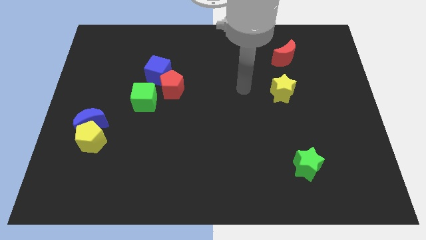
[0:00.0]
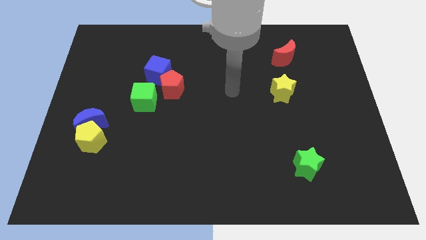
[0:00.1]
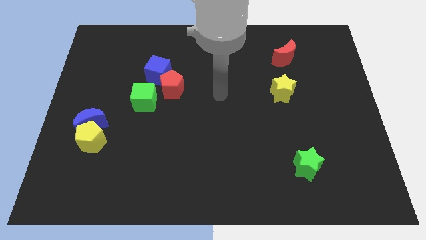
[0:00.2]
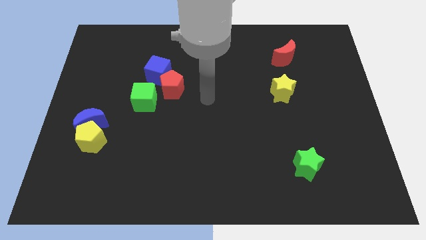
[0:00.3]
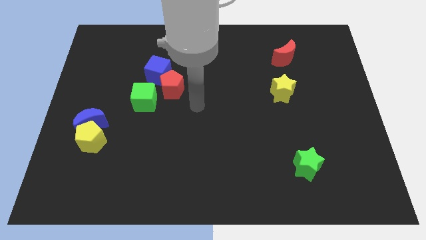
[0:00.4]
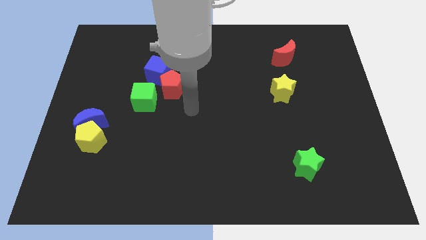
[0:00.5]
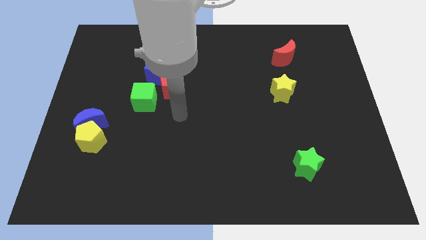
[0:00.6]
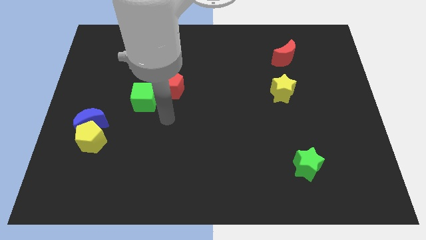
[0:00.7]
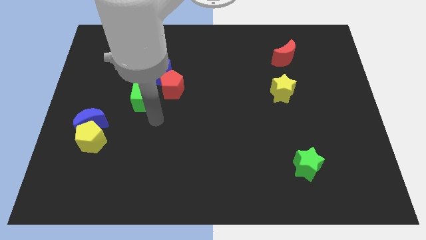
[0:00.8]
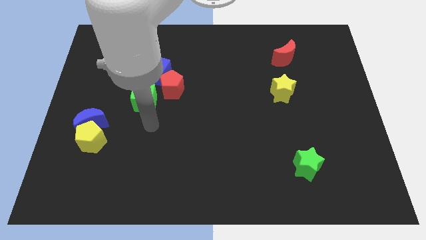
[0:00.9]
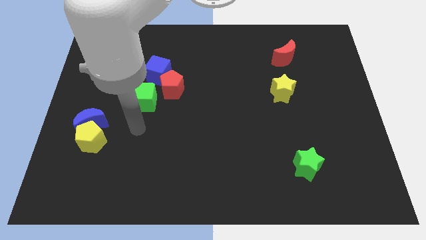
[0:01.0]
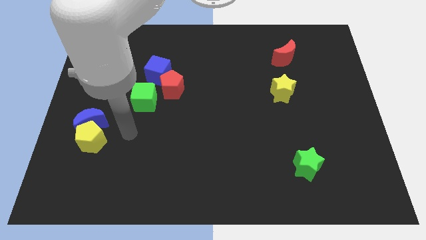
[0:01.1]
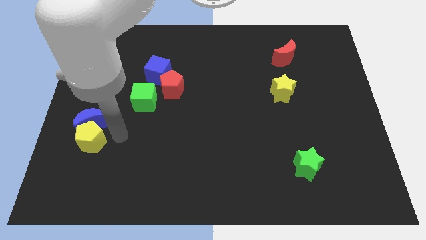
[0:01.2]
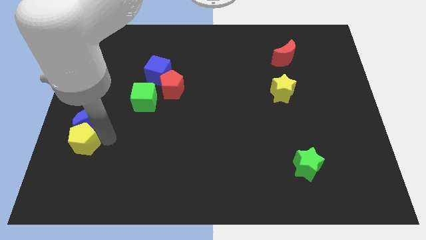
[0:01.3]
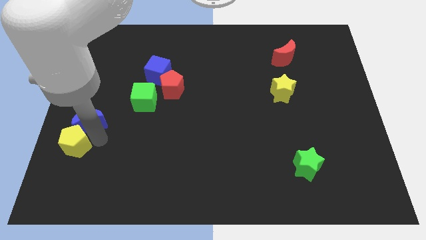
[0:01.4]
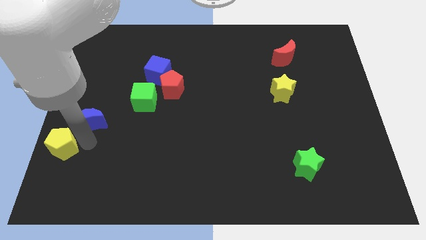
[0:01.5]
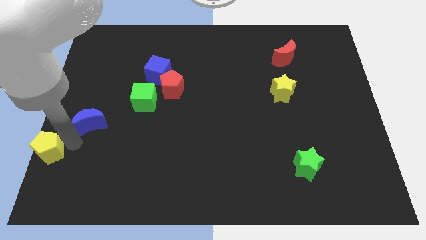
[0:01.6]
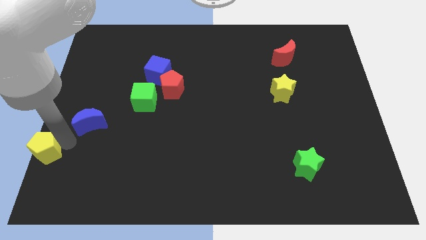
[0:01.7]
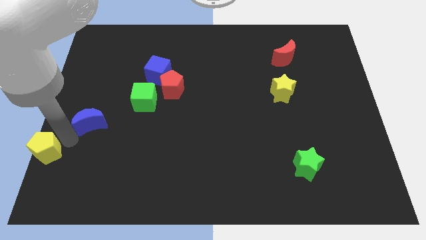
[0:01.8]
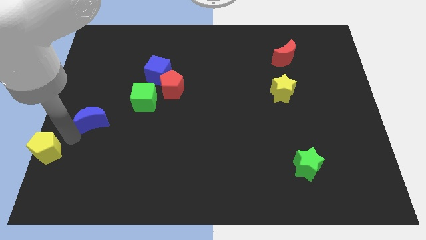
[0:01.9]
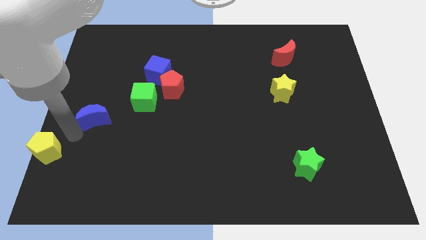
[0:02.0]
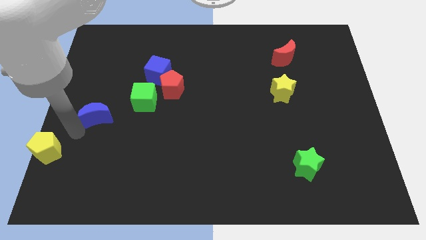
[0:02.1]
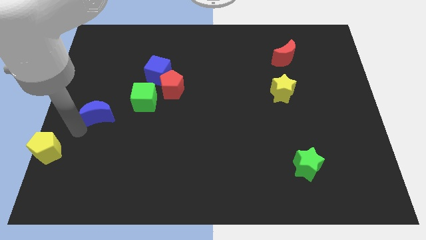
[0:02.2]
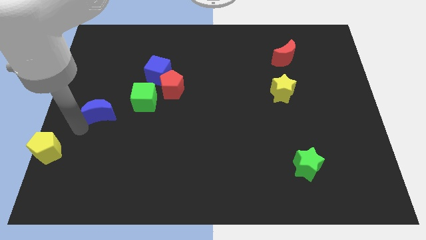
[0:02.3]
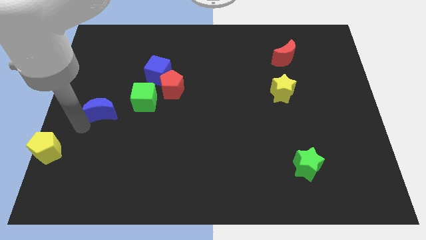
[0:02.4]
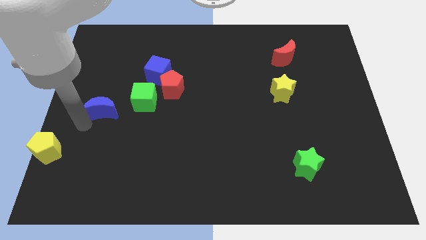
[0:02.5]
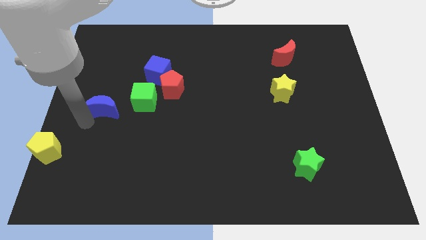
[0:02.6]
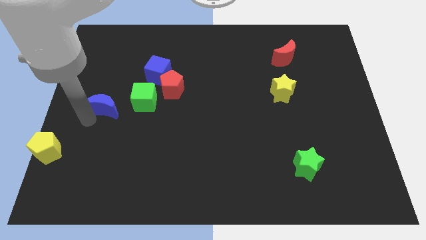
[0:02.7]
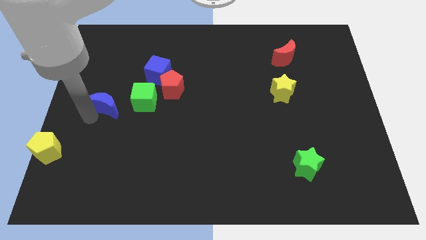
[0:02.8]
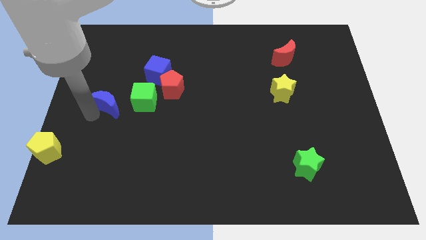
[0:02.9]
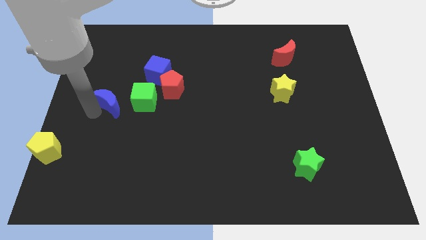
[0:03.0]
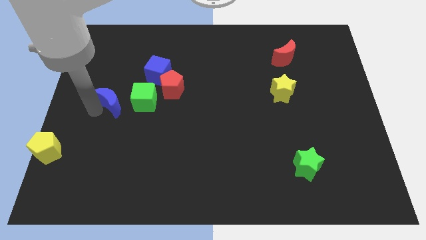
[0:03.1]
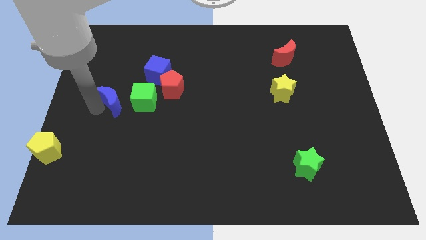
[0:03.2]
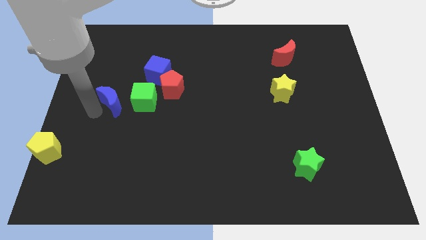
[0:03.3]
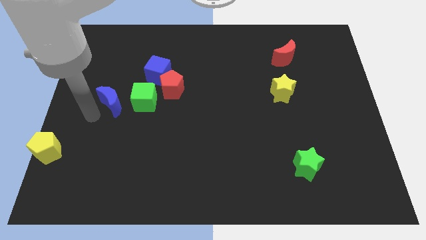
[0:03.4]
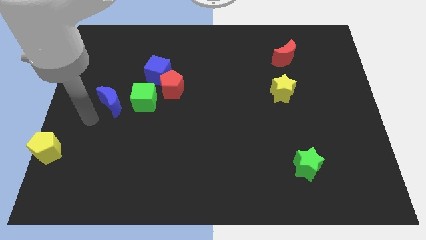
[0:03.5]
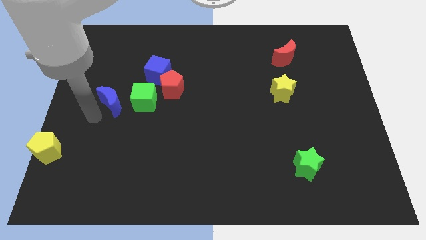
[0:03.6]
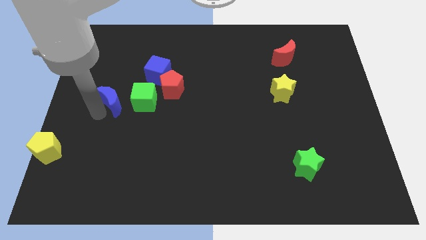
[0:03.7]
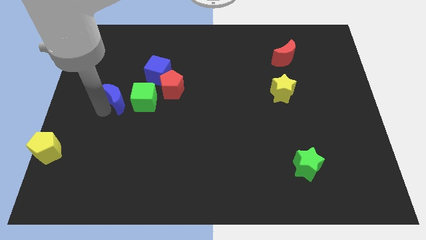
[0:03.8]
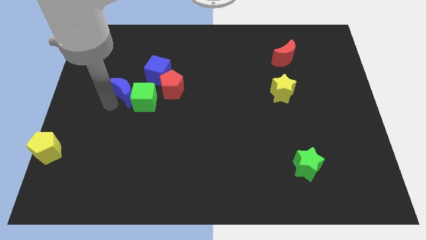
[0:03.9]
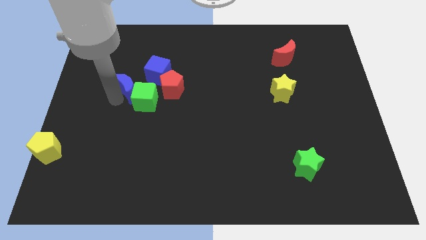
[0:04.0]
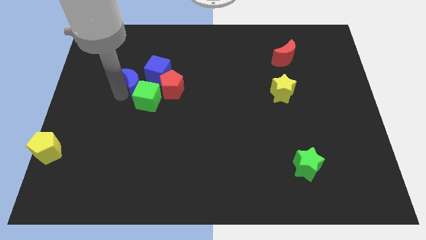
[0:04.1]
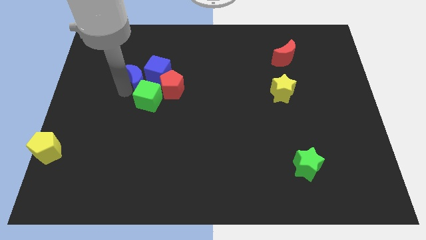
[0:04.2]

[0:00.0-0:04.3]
push the blue moon to the blue cube

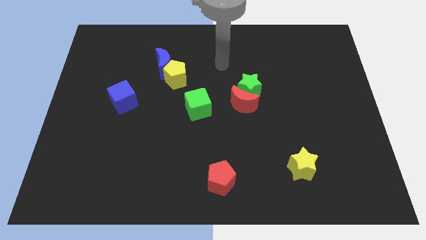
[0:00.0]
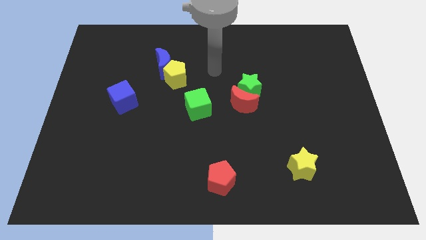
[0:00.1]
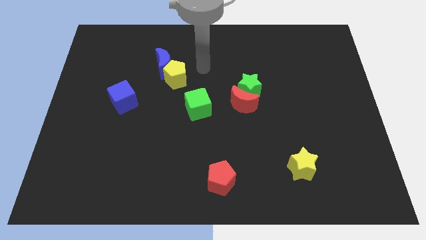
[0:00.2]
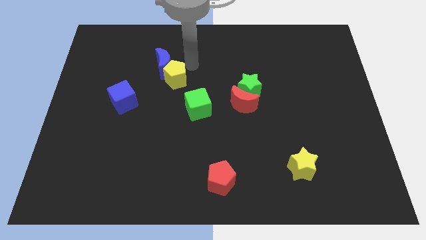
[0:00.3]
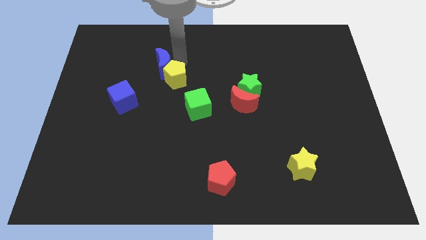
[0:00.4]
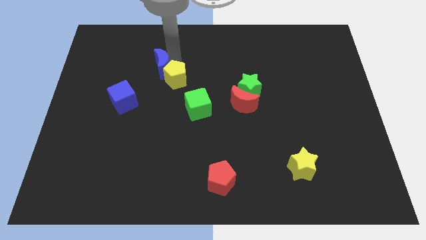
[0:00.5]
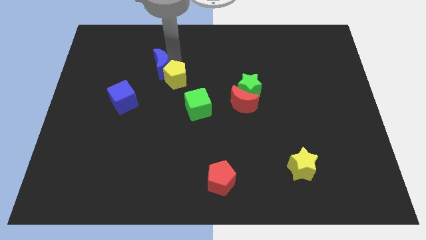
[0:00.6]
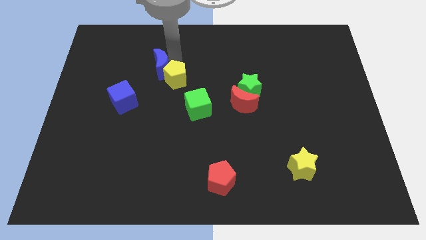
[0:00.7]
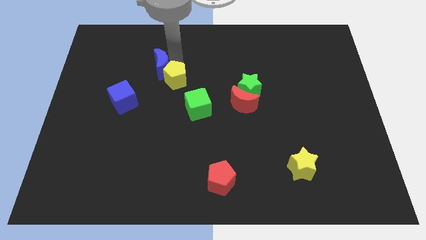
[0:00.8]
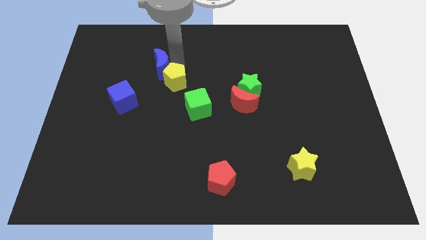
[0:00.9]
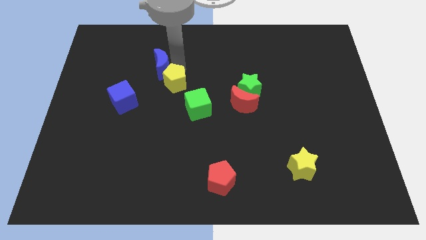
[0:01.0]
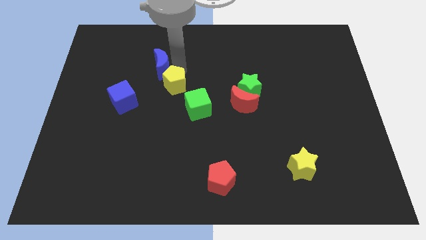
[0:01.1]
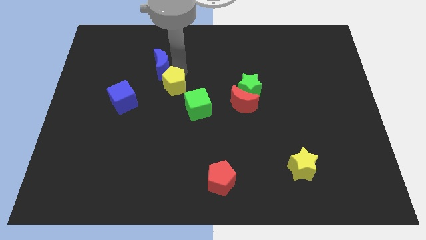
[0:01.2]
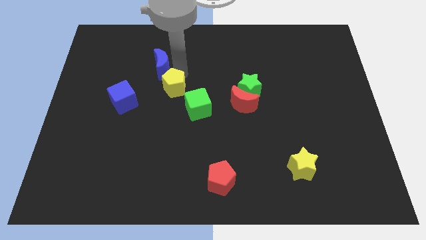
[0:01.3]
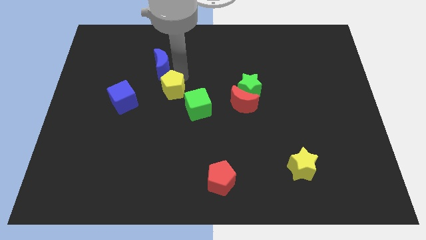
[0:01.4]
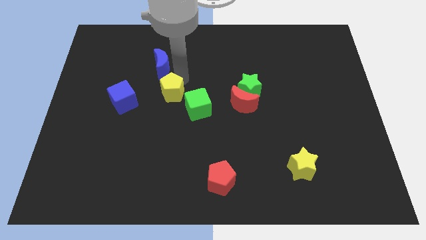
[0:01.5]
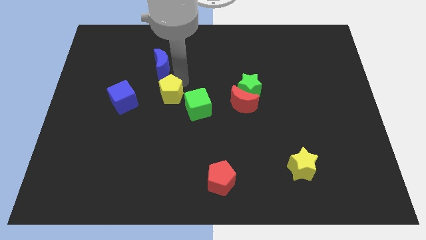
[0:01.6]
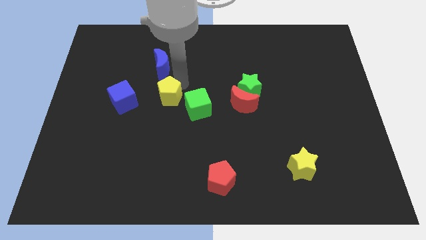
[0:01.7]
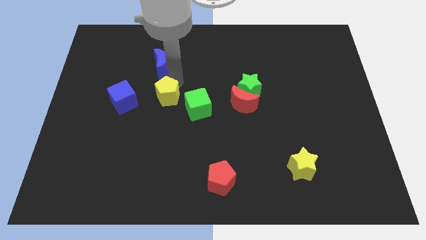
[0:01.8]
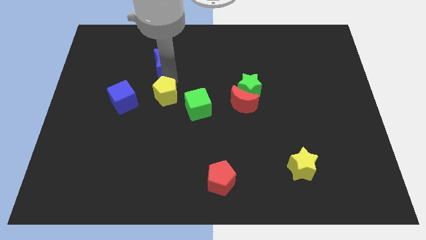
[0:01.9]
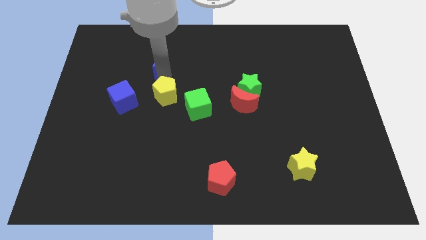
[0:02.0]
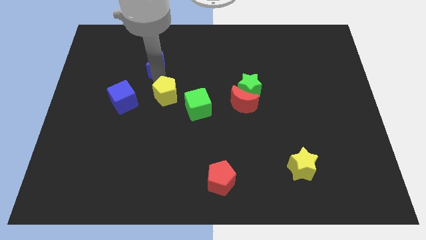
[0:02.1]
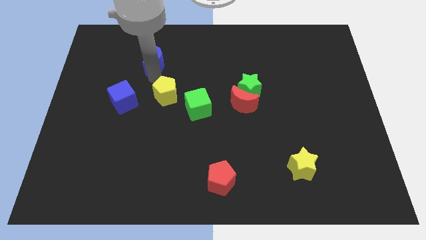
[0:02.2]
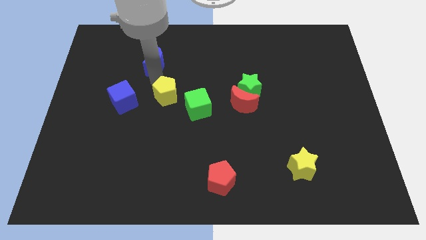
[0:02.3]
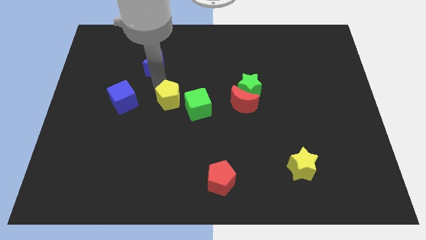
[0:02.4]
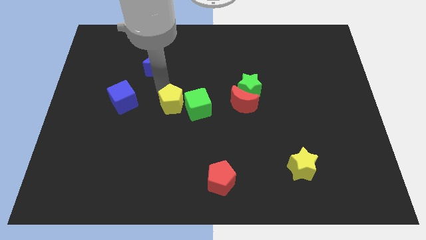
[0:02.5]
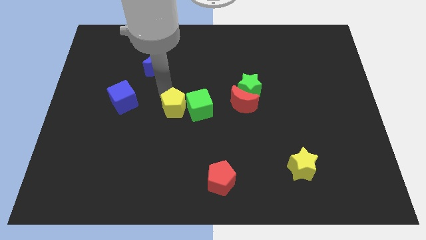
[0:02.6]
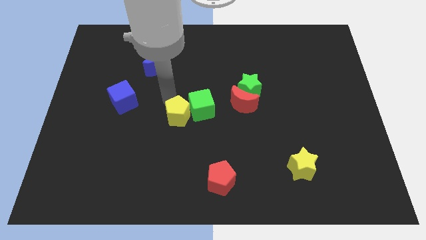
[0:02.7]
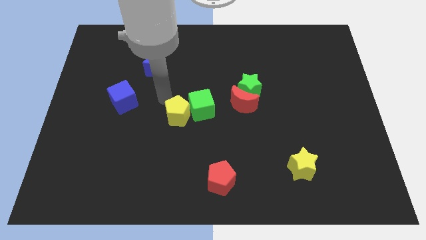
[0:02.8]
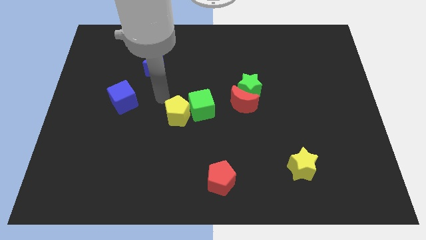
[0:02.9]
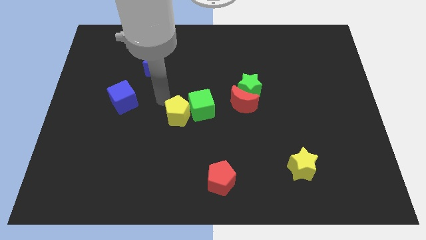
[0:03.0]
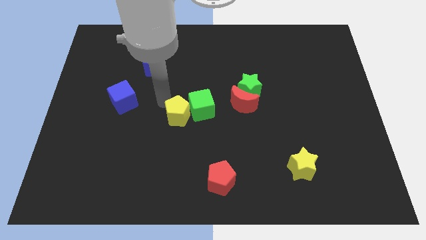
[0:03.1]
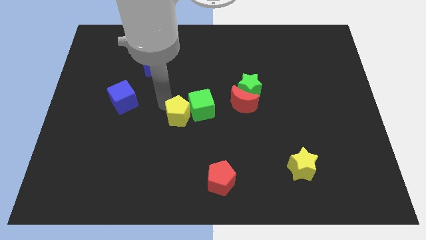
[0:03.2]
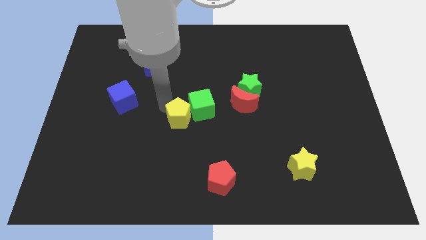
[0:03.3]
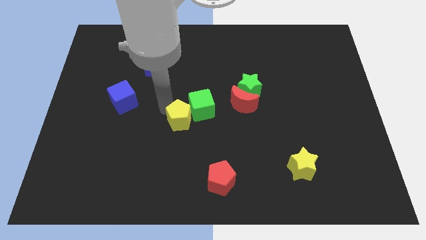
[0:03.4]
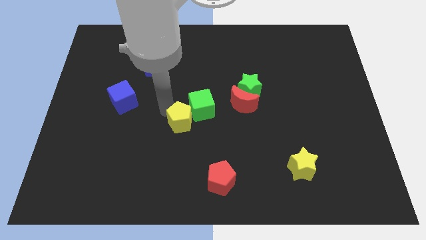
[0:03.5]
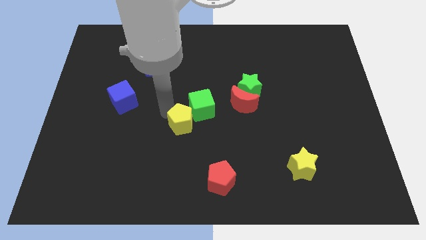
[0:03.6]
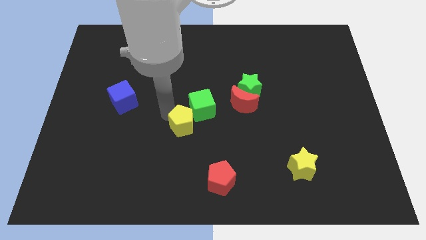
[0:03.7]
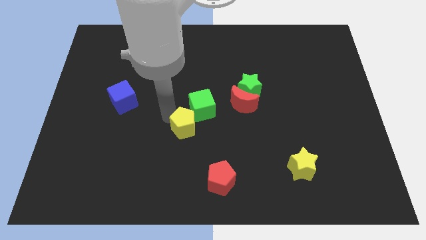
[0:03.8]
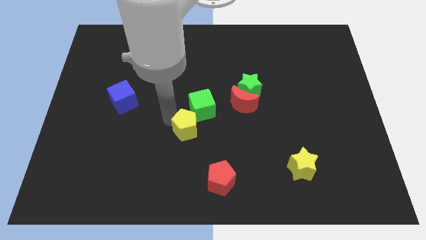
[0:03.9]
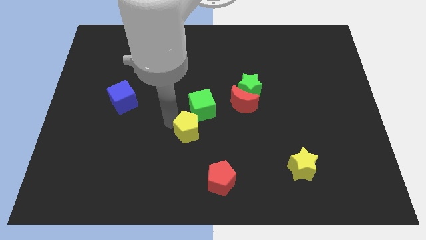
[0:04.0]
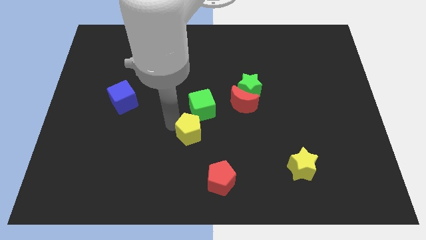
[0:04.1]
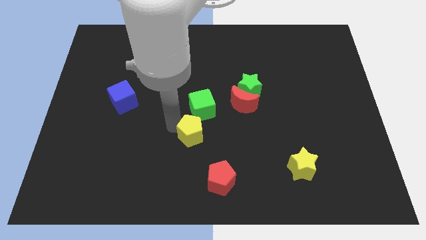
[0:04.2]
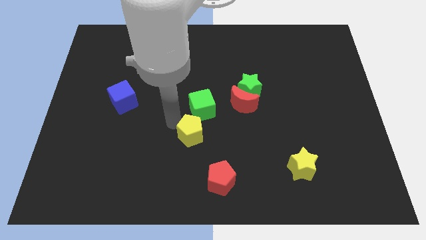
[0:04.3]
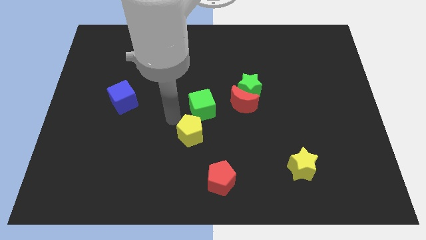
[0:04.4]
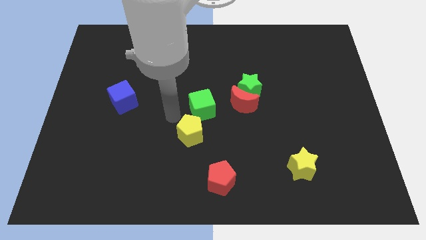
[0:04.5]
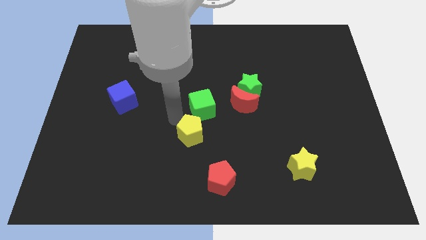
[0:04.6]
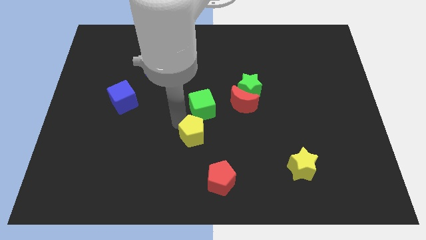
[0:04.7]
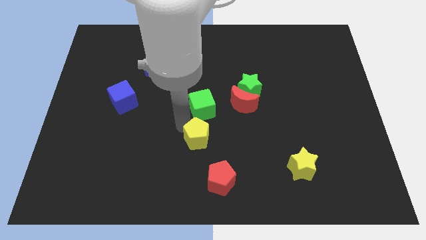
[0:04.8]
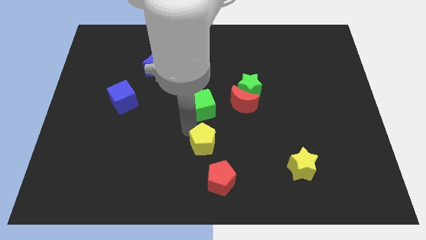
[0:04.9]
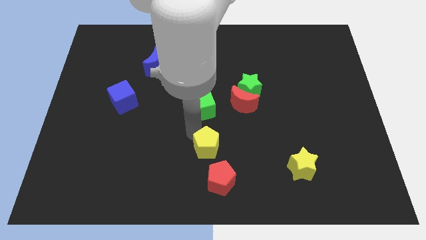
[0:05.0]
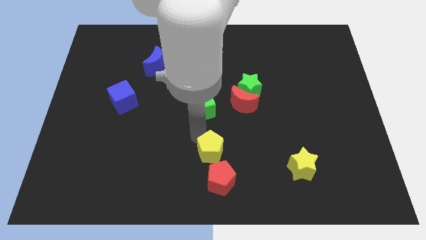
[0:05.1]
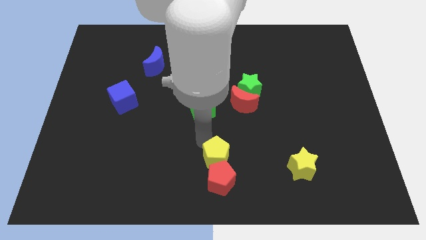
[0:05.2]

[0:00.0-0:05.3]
put the yellow pentagon close to the red pentagon
